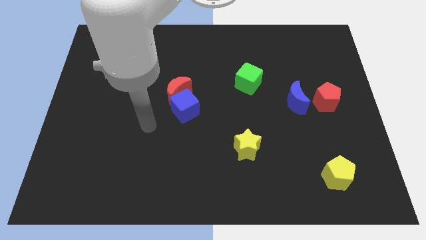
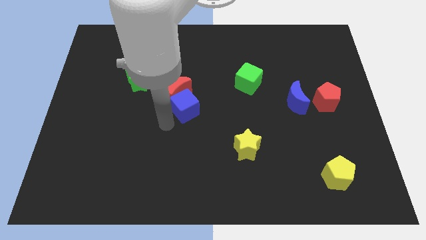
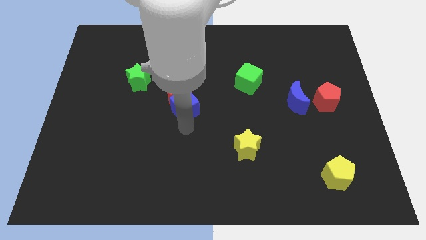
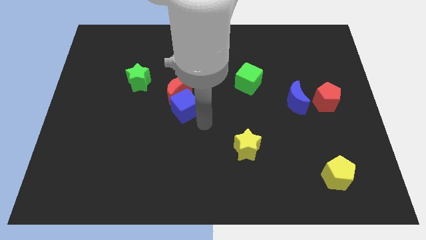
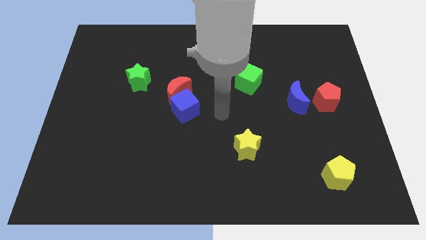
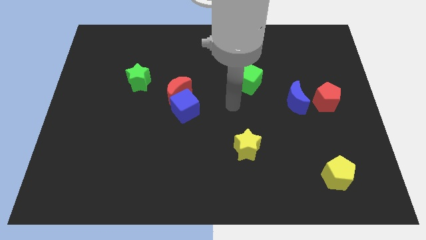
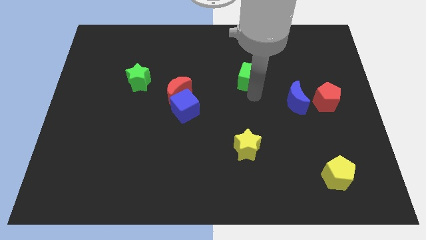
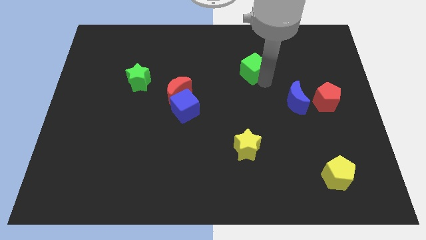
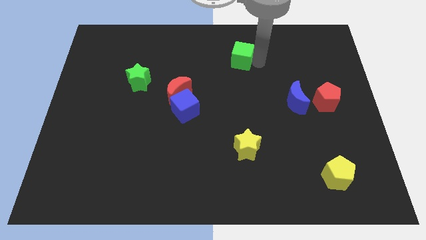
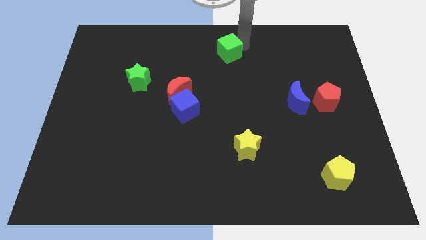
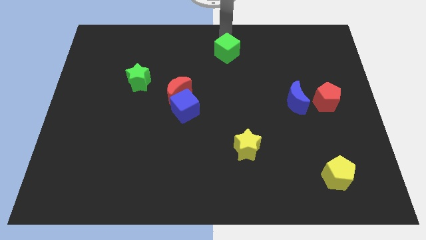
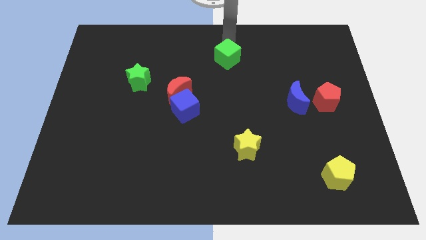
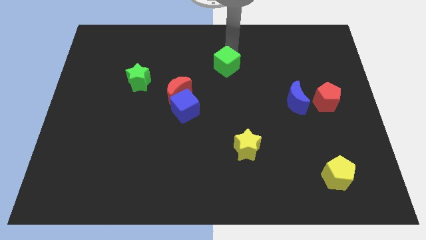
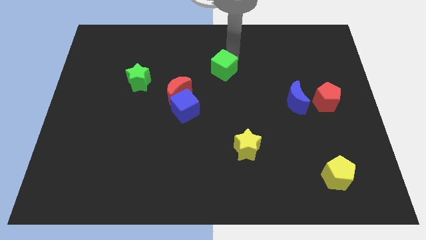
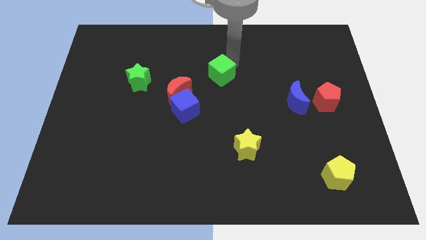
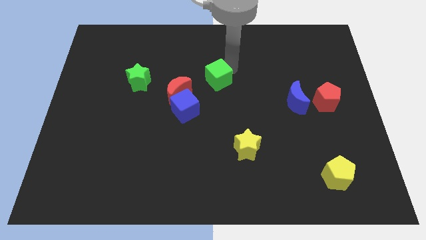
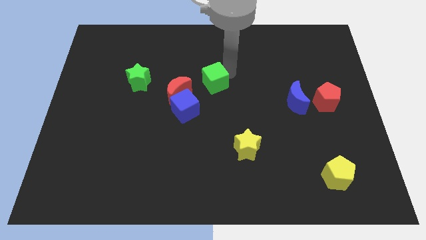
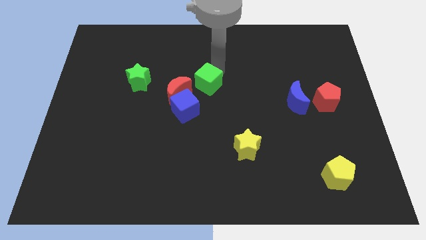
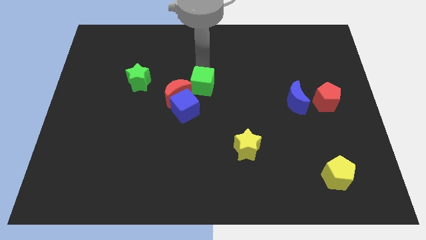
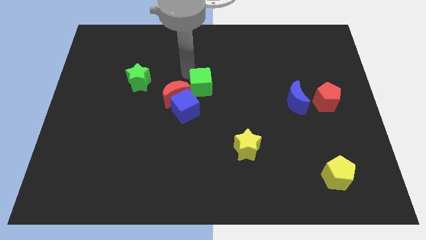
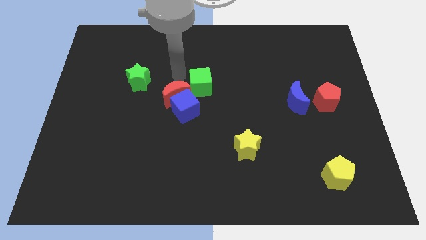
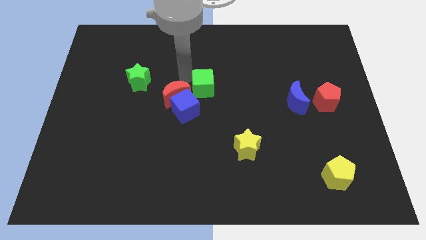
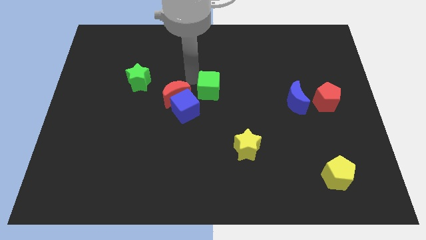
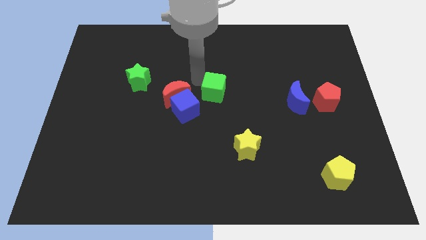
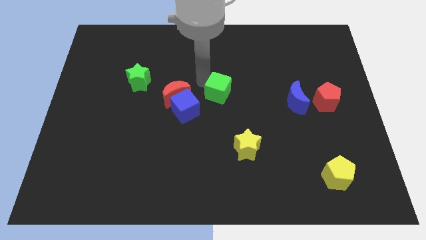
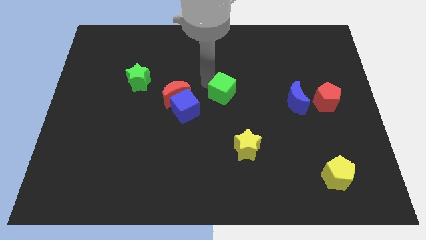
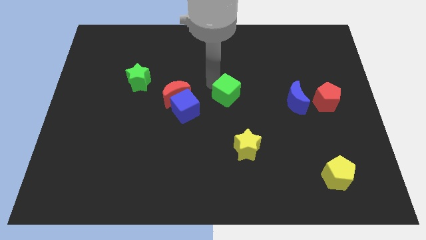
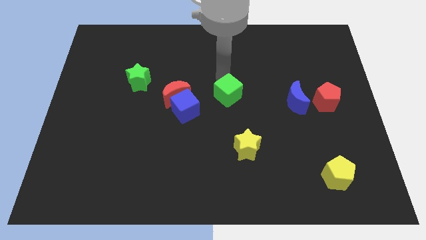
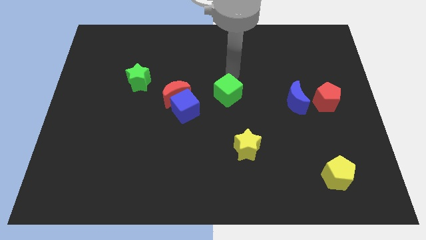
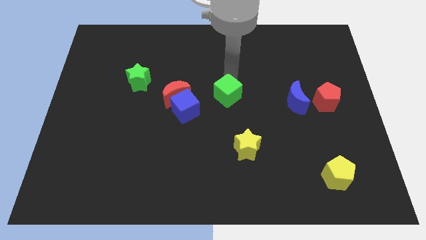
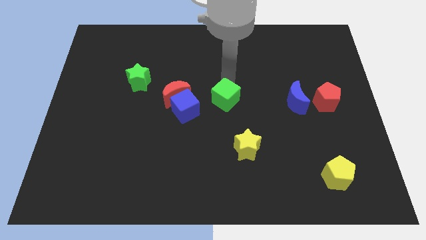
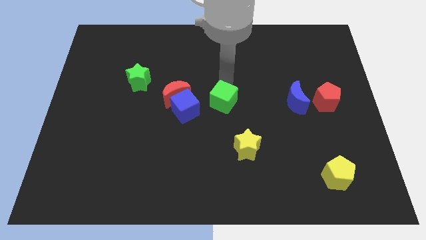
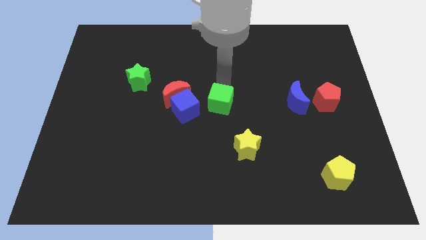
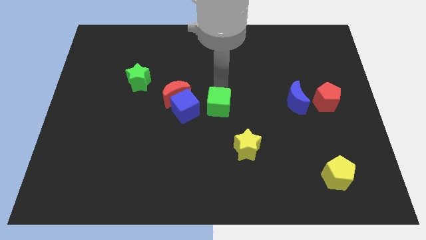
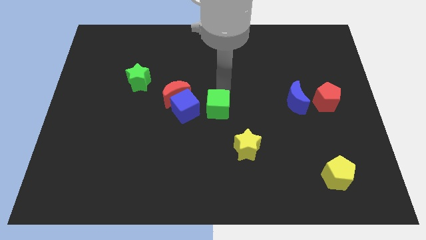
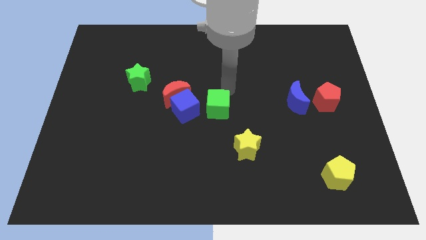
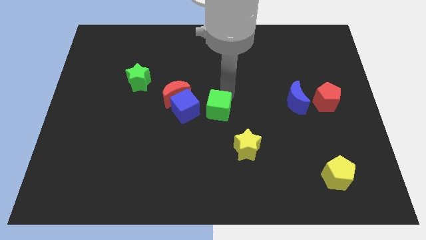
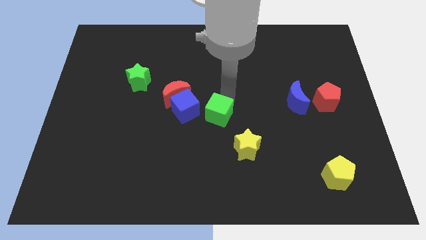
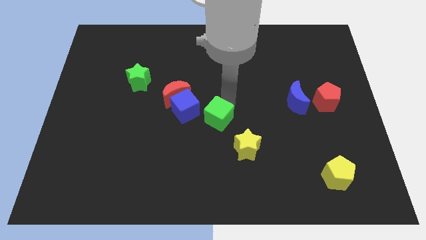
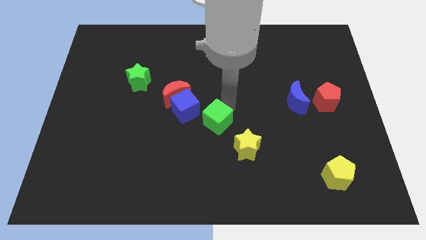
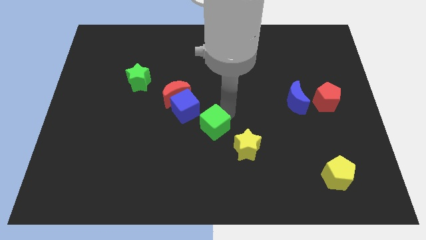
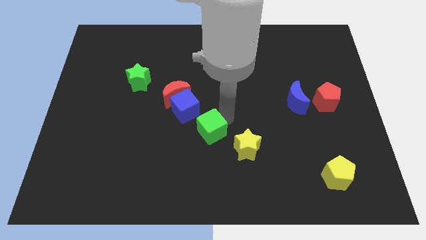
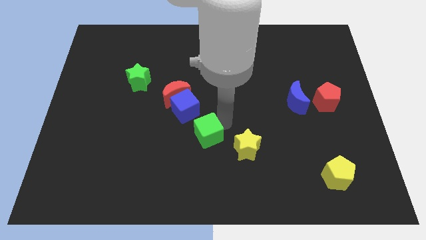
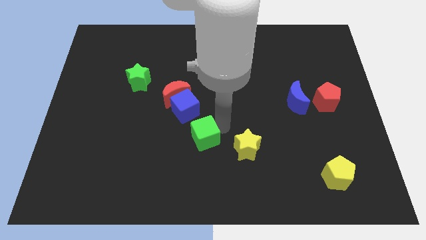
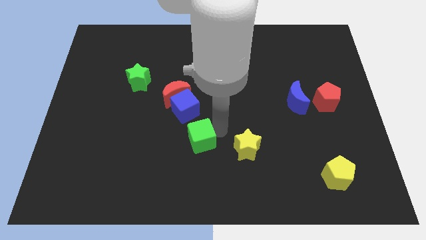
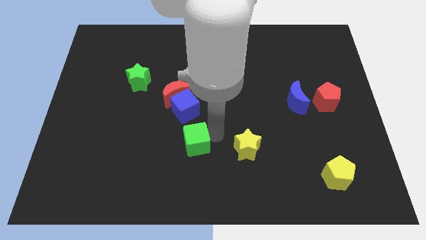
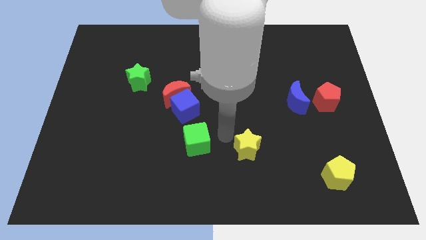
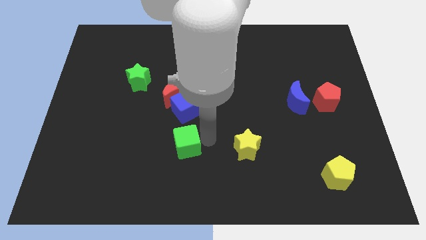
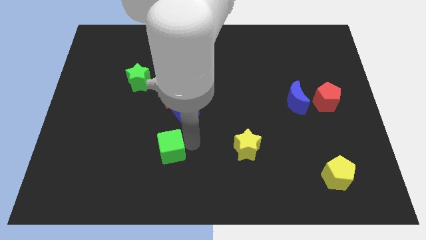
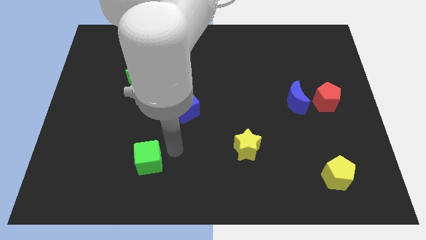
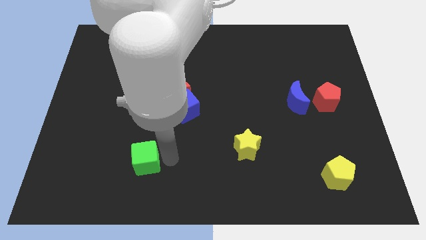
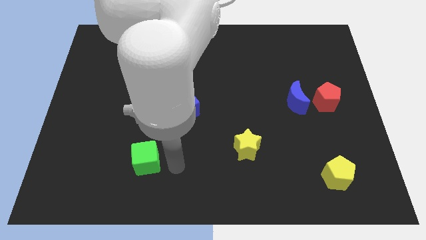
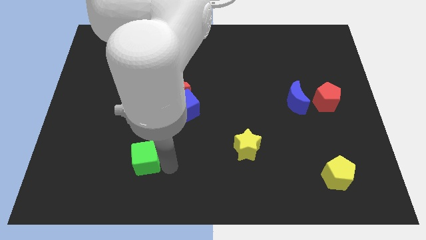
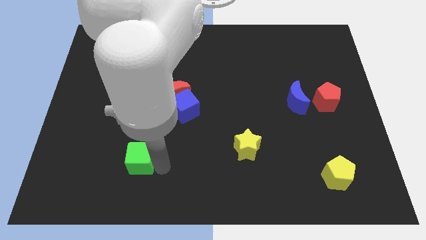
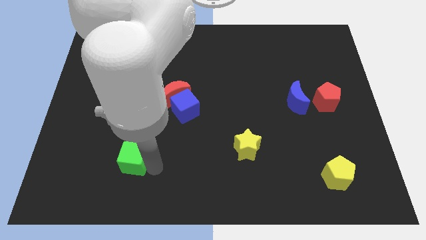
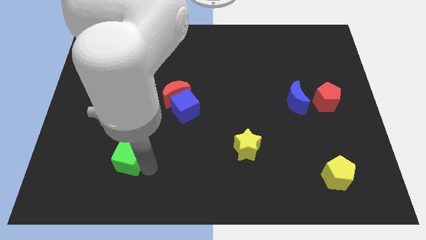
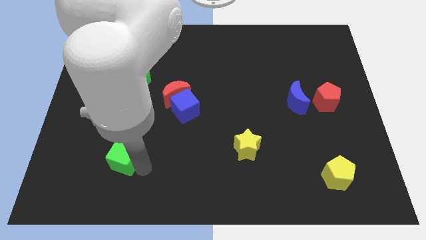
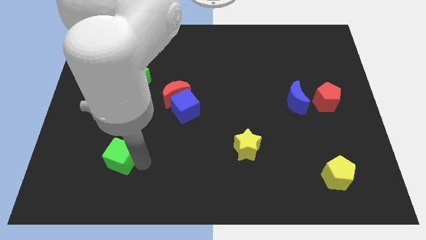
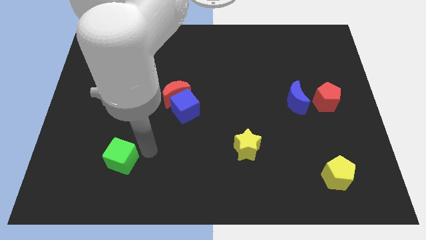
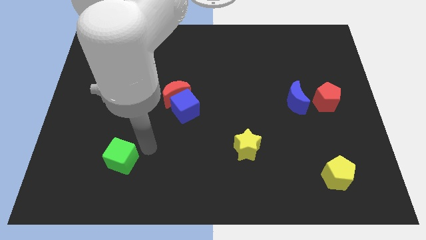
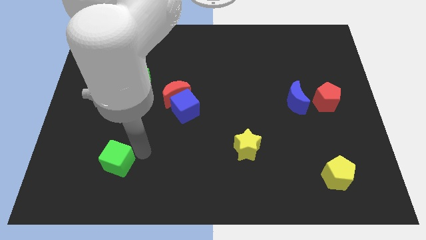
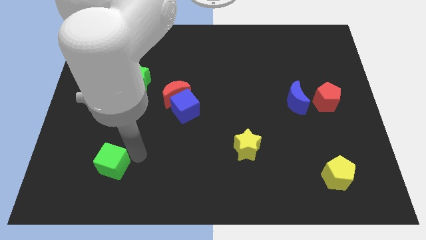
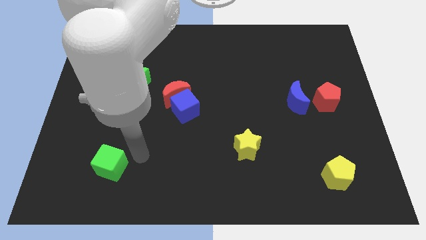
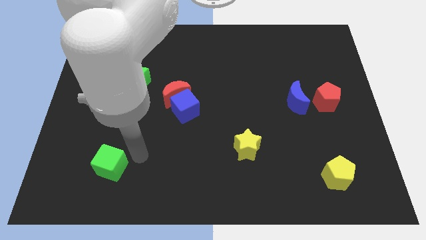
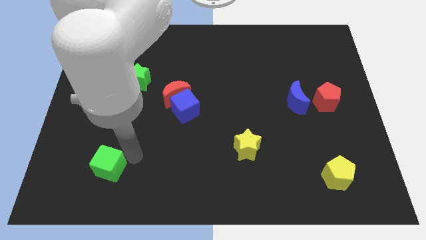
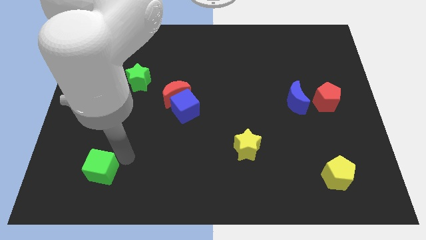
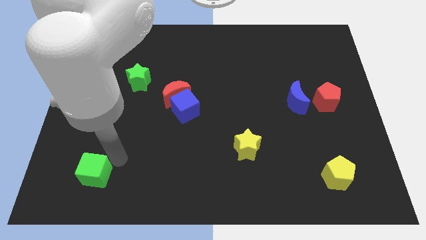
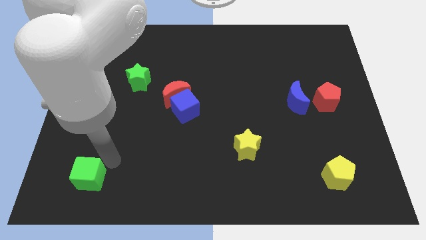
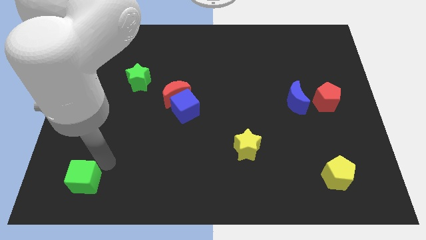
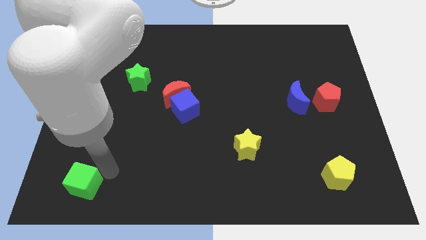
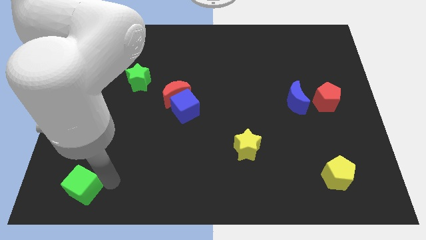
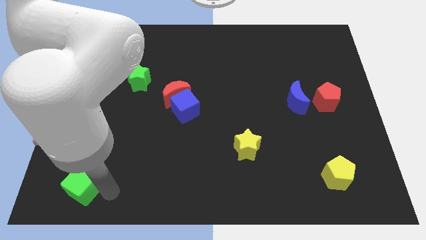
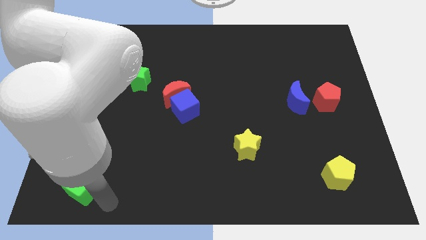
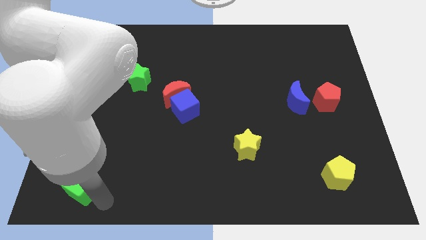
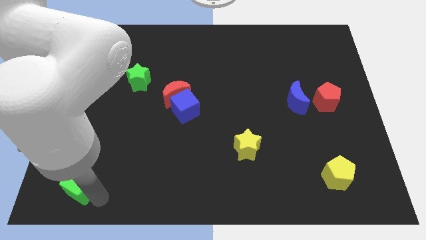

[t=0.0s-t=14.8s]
push the green cube to the lower left corner
